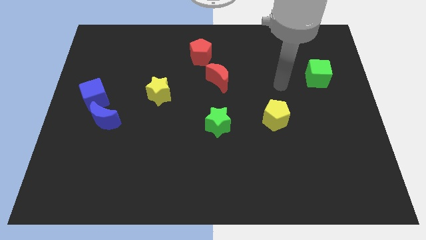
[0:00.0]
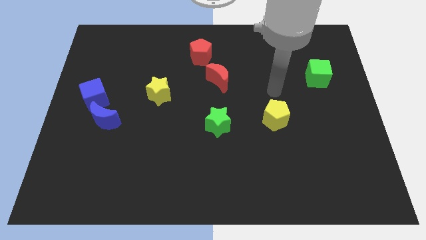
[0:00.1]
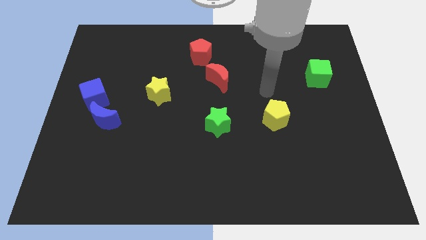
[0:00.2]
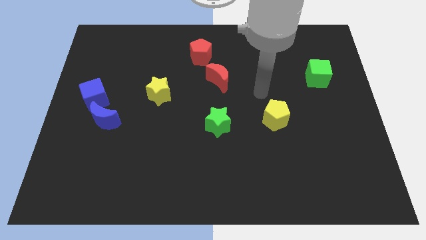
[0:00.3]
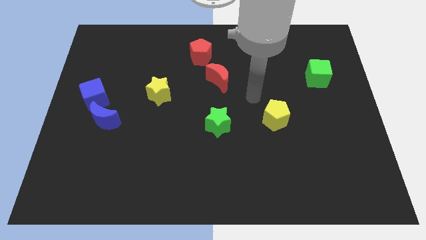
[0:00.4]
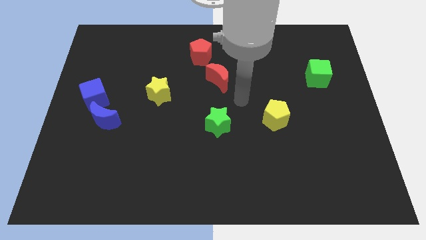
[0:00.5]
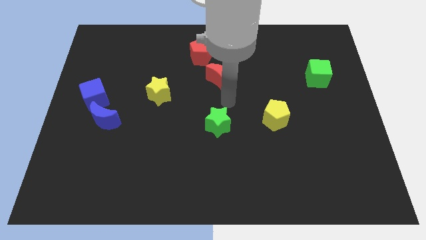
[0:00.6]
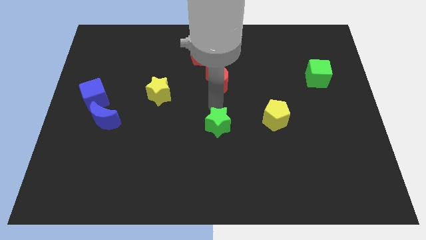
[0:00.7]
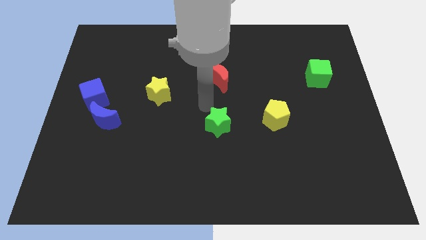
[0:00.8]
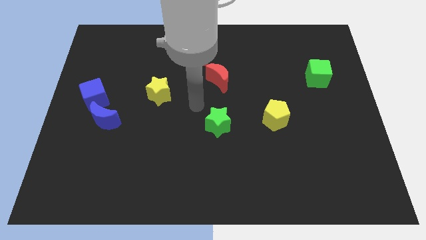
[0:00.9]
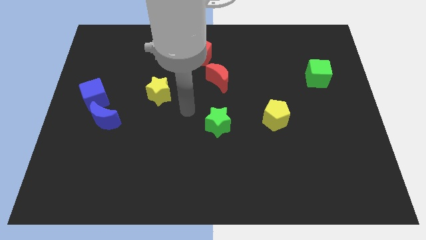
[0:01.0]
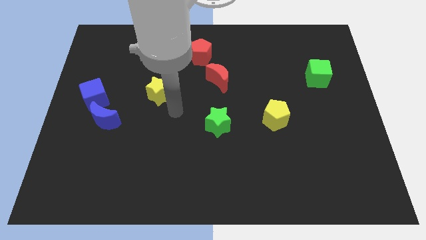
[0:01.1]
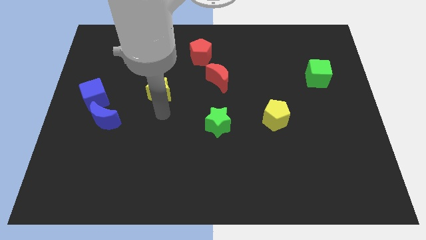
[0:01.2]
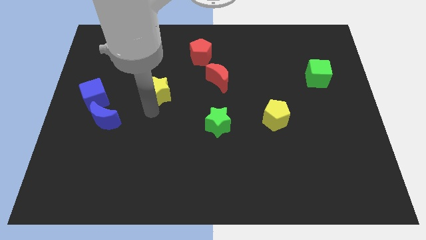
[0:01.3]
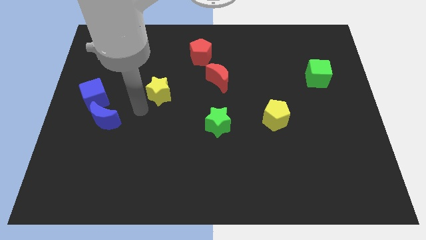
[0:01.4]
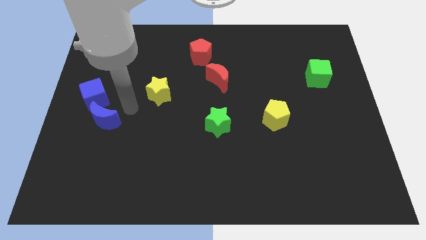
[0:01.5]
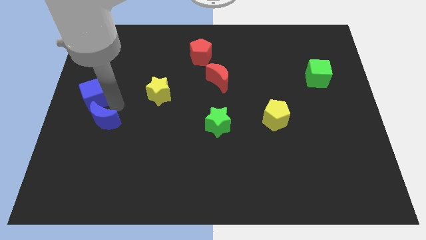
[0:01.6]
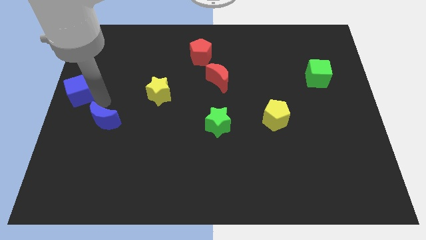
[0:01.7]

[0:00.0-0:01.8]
move the blue moon away from the blue cube

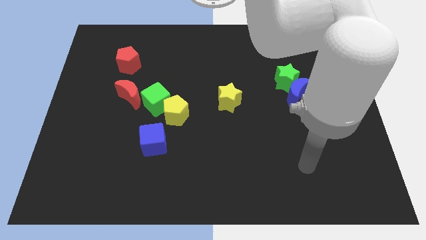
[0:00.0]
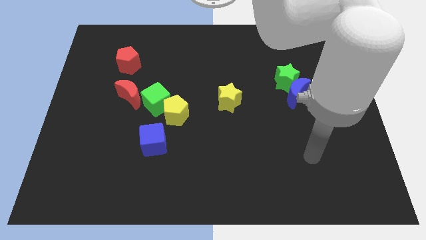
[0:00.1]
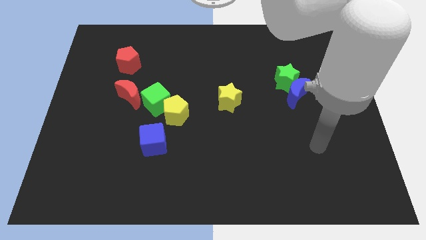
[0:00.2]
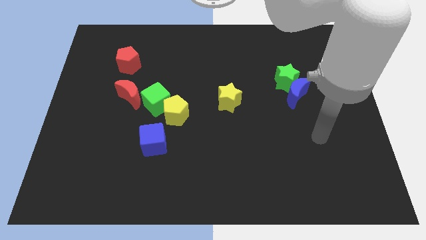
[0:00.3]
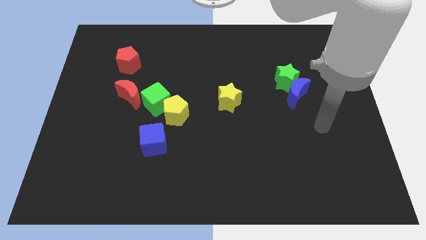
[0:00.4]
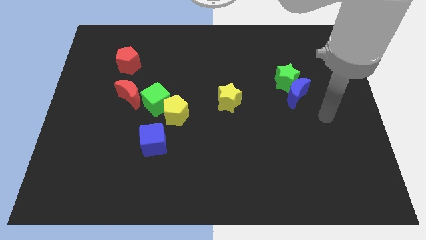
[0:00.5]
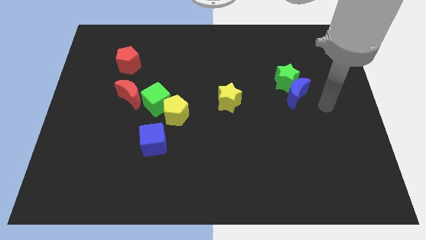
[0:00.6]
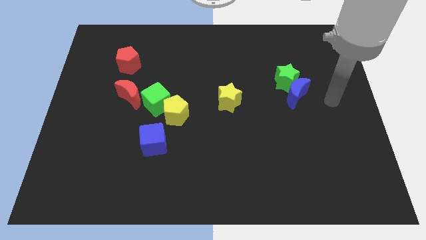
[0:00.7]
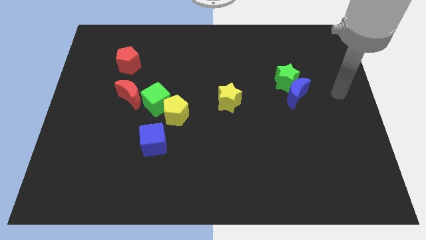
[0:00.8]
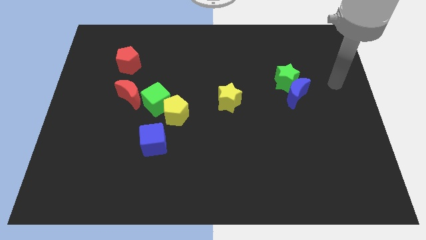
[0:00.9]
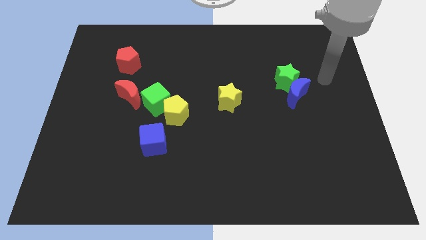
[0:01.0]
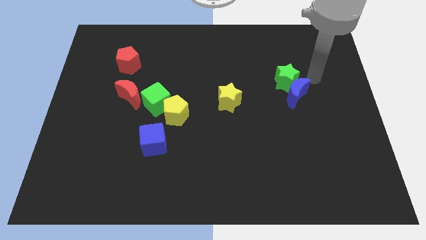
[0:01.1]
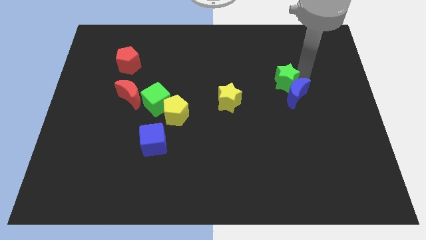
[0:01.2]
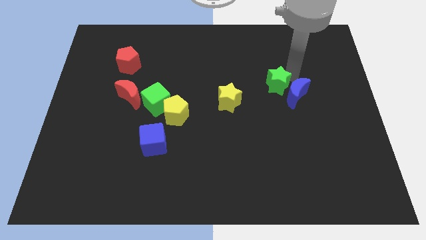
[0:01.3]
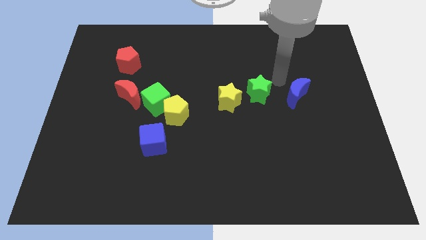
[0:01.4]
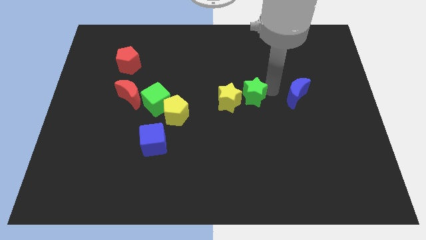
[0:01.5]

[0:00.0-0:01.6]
move the blue moon away from the green star

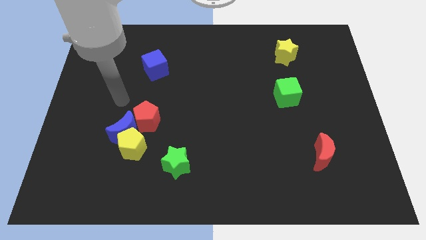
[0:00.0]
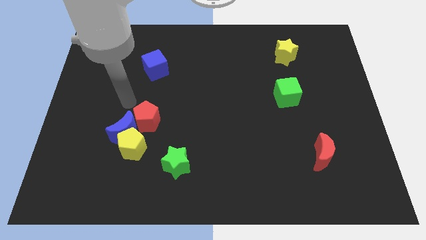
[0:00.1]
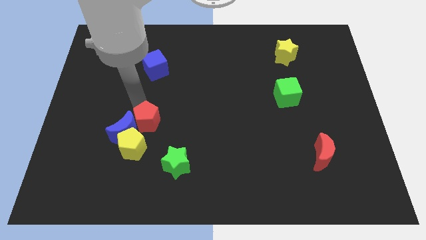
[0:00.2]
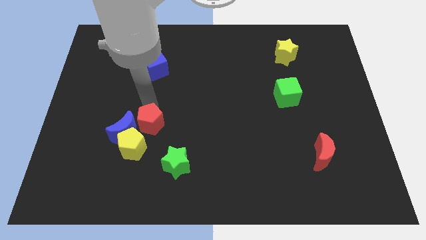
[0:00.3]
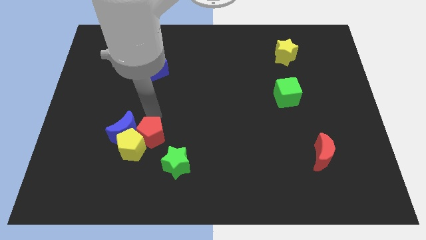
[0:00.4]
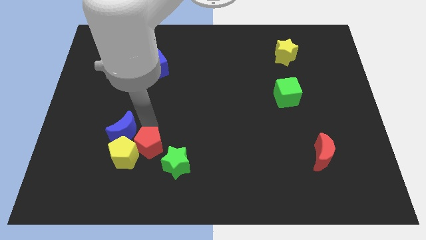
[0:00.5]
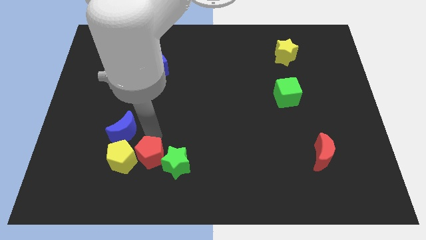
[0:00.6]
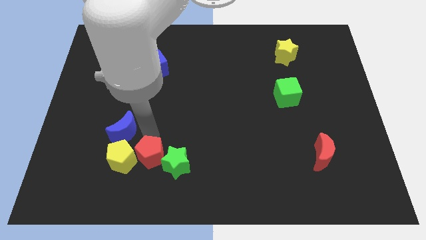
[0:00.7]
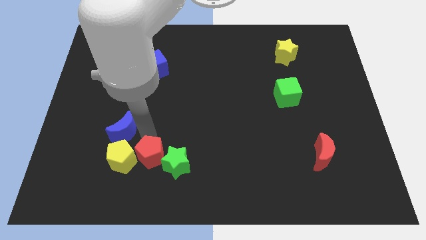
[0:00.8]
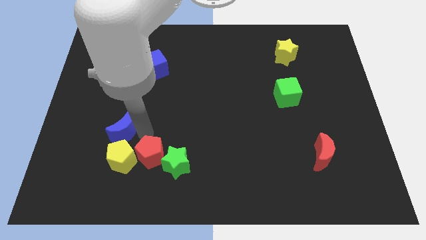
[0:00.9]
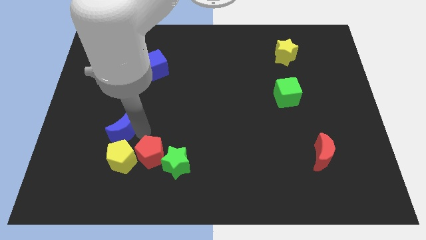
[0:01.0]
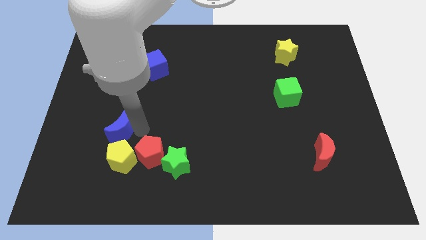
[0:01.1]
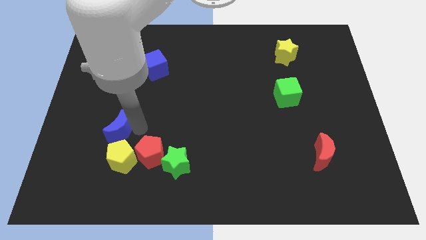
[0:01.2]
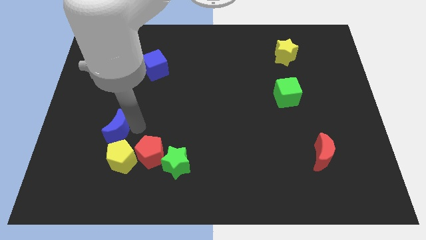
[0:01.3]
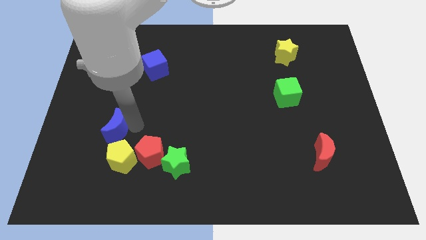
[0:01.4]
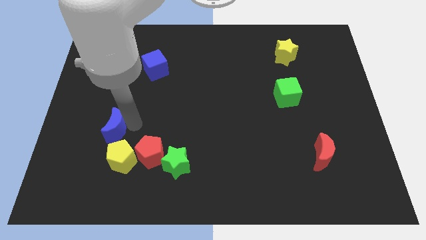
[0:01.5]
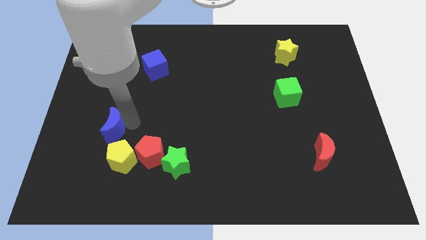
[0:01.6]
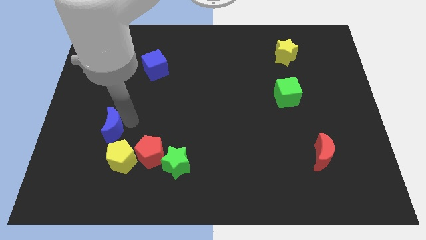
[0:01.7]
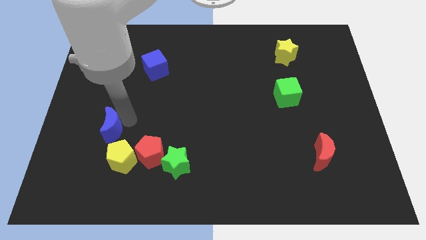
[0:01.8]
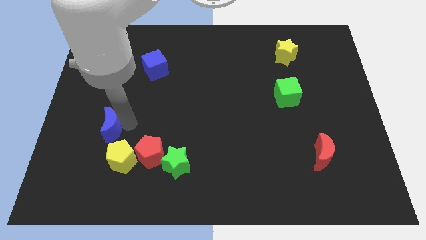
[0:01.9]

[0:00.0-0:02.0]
move the blue moon away from the yellow pentagon and red pentagon

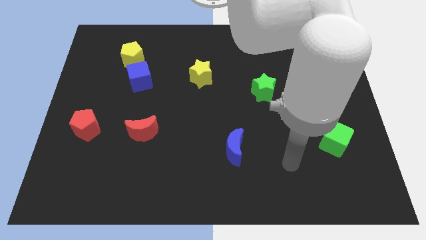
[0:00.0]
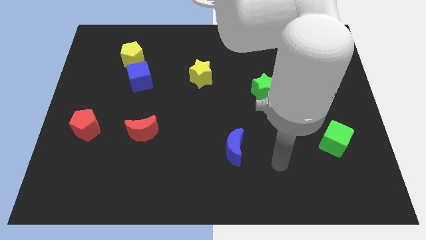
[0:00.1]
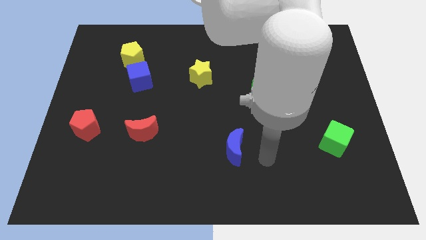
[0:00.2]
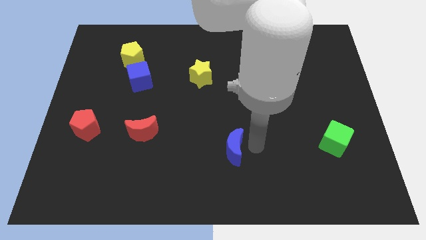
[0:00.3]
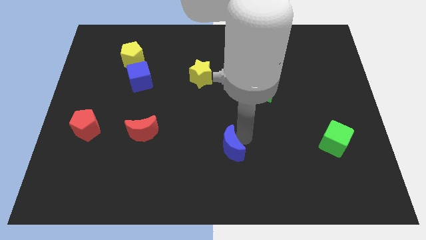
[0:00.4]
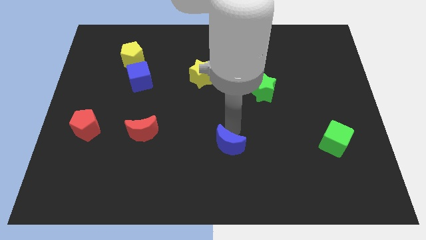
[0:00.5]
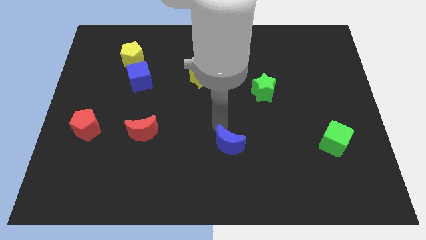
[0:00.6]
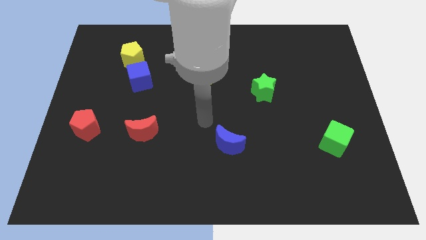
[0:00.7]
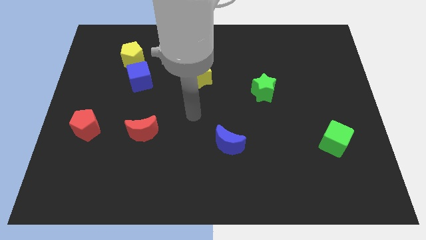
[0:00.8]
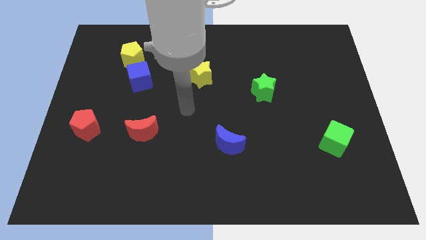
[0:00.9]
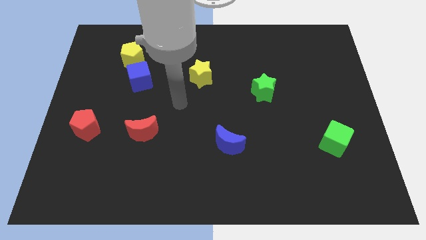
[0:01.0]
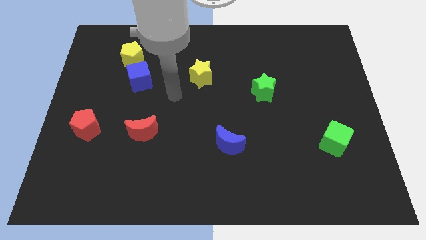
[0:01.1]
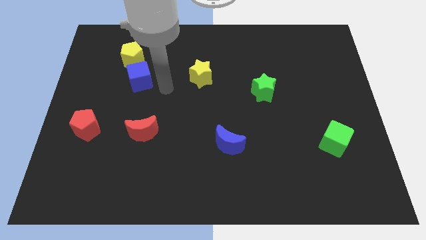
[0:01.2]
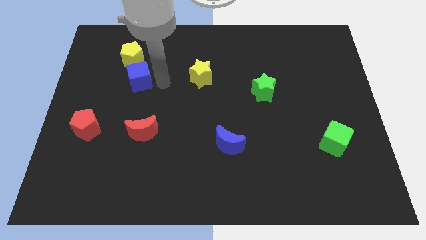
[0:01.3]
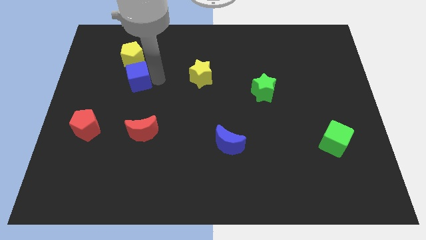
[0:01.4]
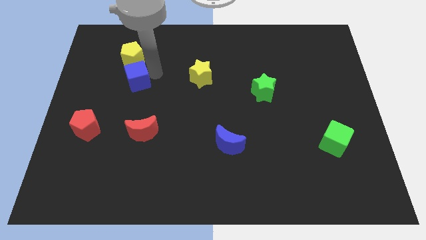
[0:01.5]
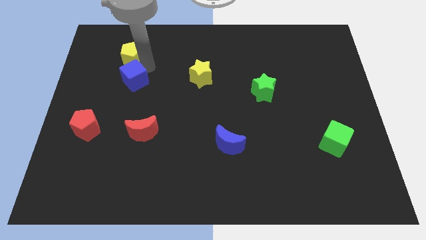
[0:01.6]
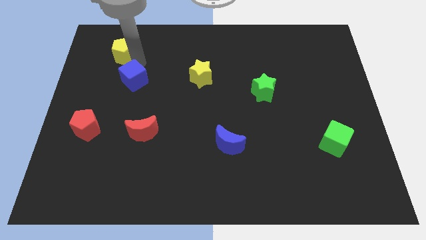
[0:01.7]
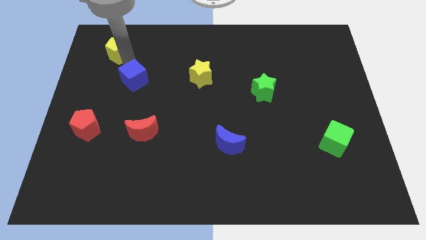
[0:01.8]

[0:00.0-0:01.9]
move the blue cube away from the yellow pentagon

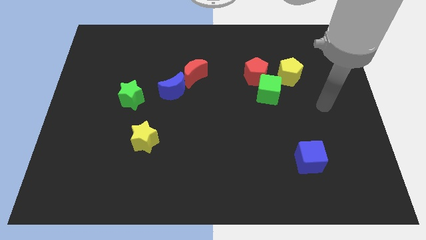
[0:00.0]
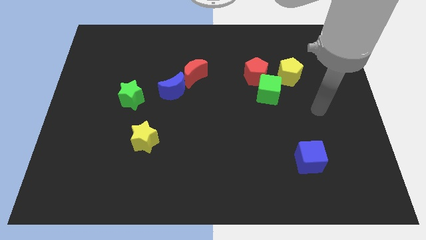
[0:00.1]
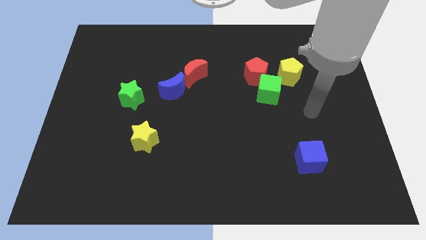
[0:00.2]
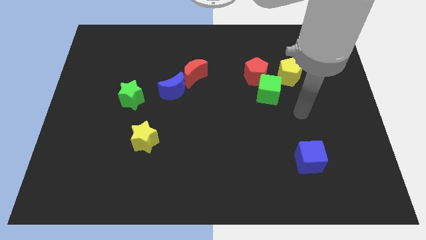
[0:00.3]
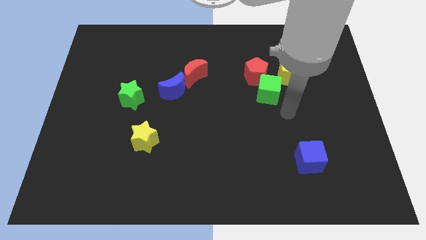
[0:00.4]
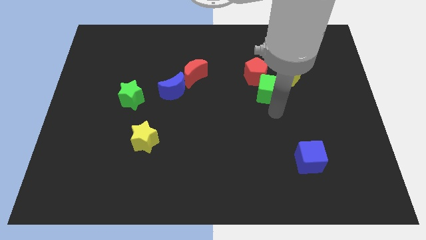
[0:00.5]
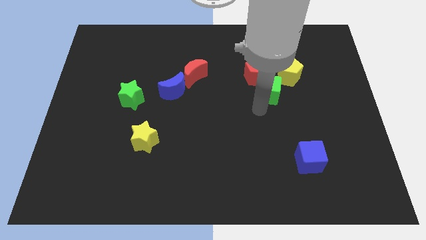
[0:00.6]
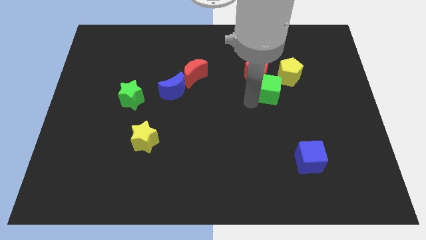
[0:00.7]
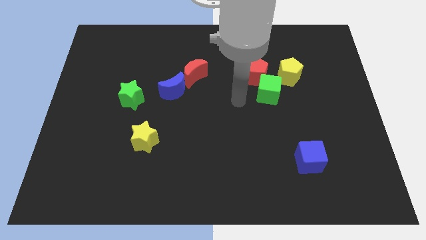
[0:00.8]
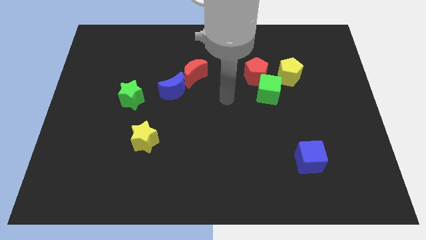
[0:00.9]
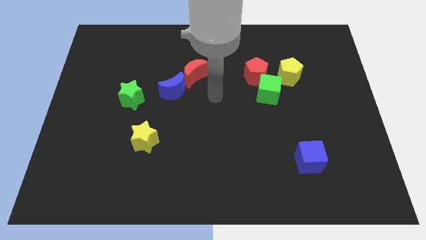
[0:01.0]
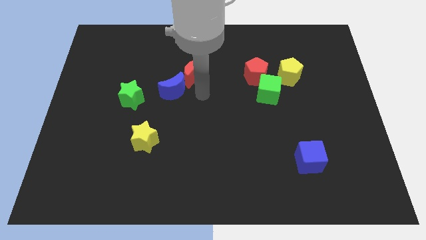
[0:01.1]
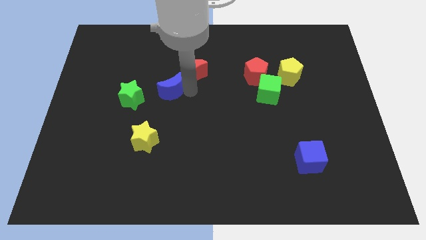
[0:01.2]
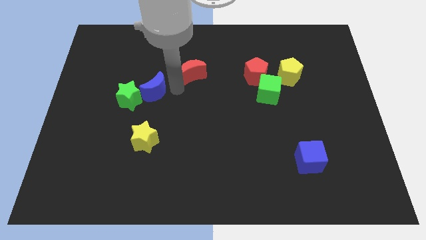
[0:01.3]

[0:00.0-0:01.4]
move the red moon away from the blue moon

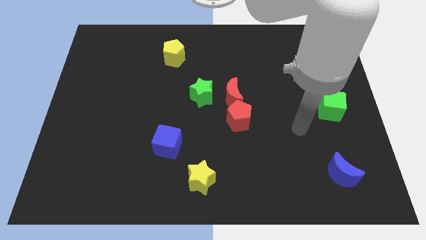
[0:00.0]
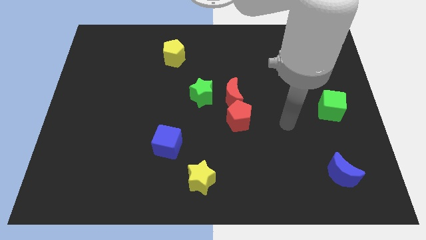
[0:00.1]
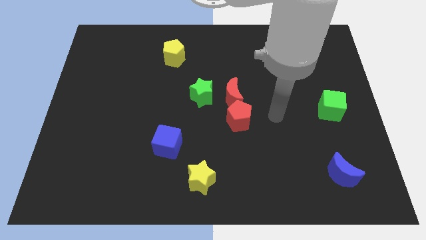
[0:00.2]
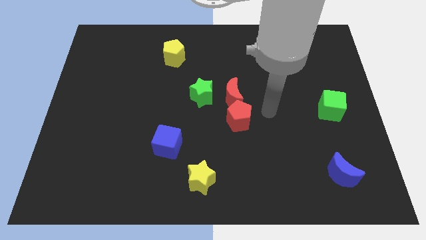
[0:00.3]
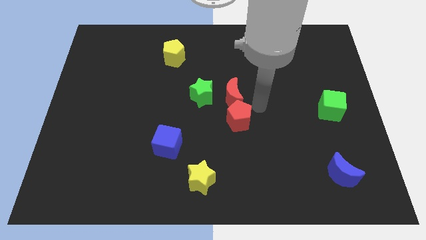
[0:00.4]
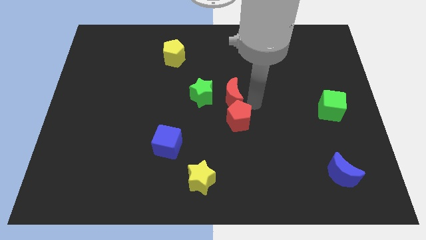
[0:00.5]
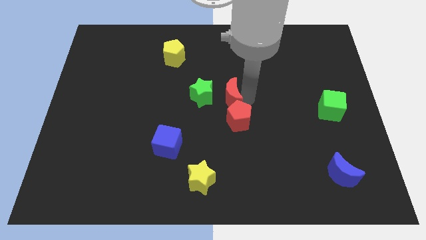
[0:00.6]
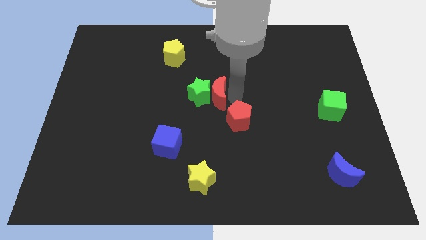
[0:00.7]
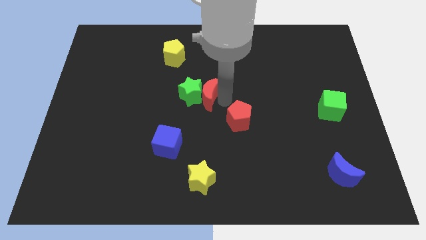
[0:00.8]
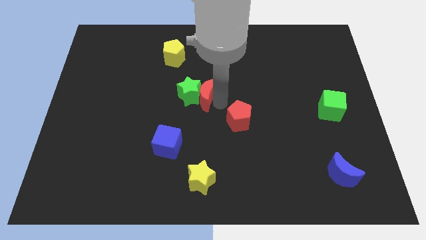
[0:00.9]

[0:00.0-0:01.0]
pull the red pentagon apart from the red moon
